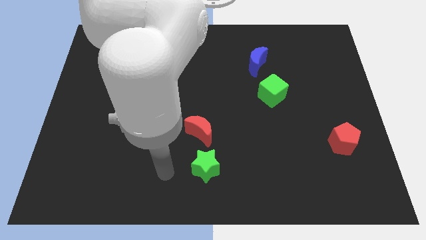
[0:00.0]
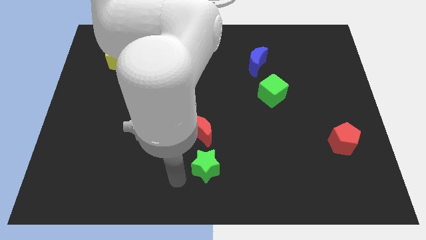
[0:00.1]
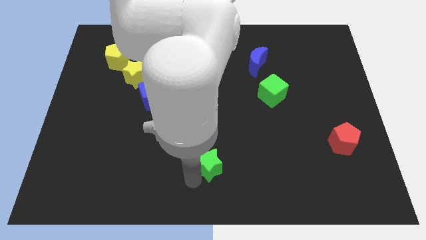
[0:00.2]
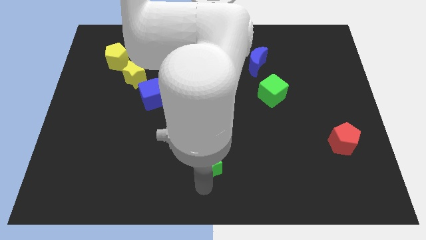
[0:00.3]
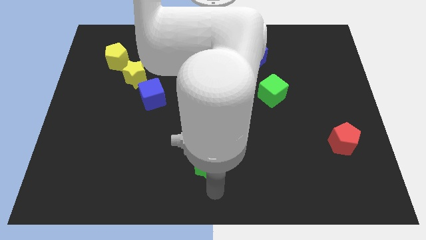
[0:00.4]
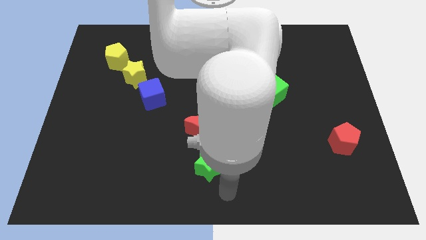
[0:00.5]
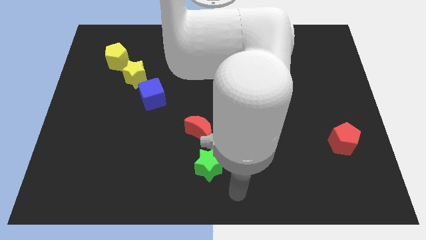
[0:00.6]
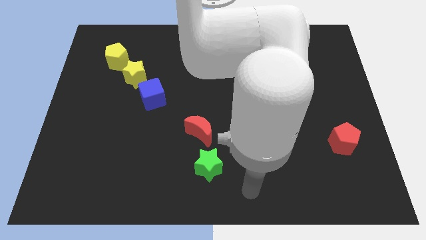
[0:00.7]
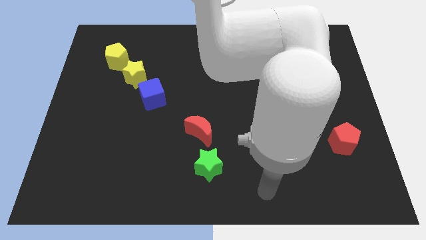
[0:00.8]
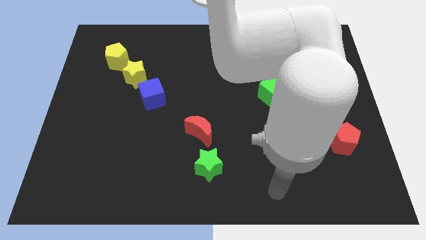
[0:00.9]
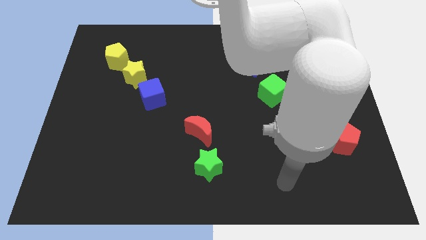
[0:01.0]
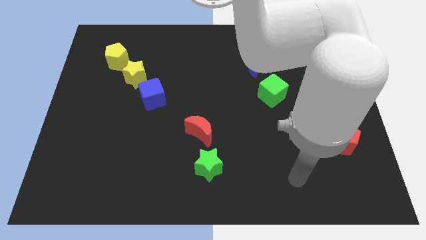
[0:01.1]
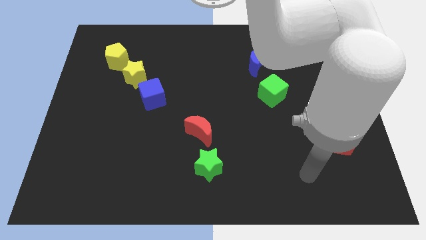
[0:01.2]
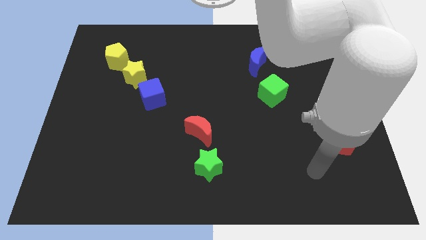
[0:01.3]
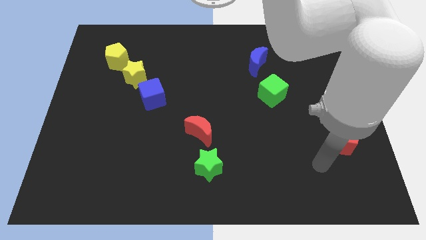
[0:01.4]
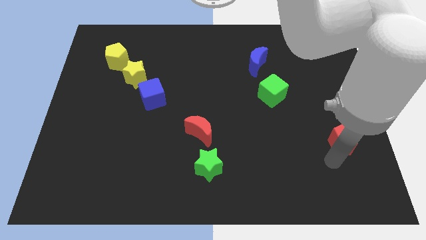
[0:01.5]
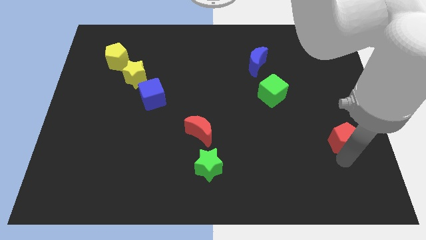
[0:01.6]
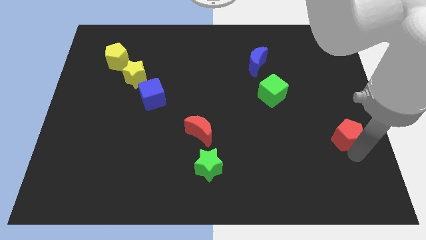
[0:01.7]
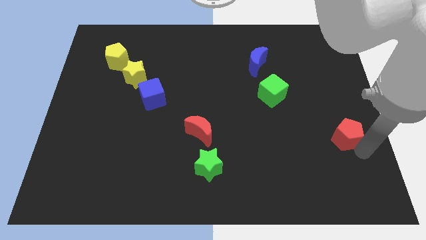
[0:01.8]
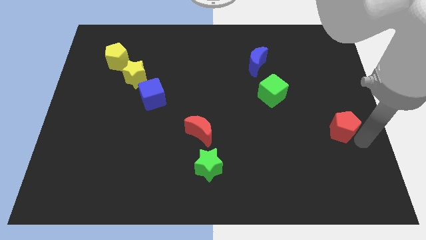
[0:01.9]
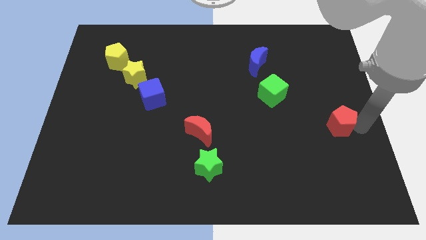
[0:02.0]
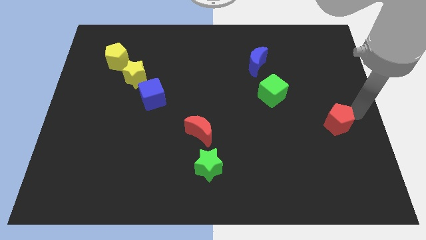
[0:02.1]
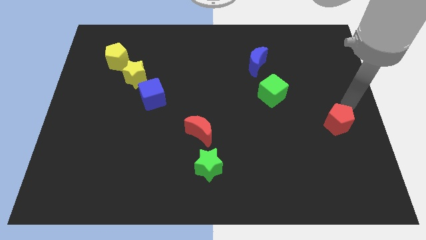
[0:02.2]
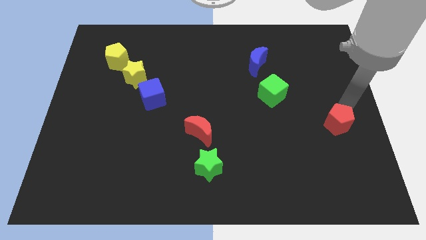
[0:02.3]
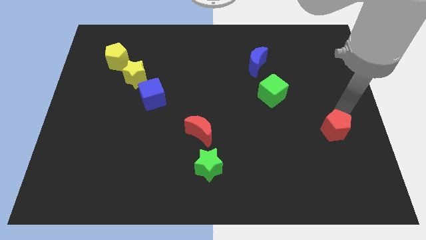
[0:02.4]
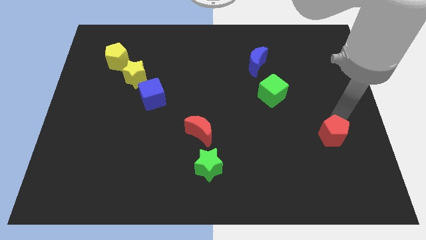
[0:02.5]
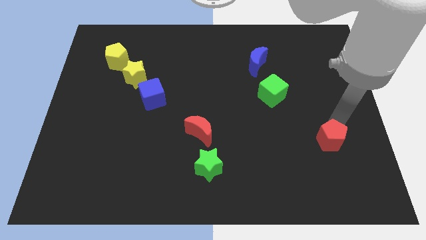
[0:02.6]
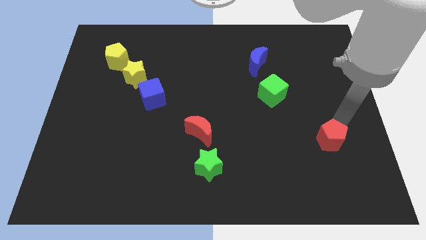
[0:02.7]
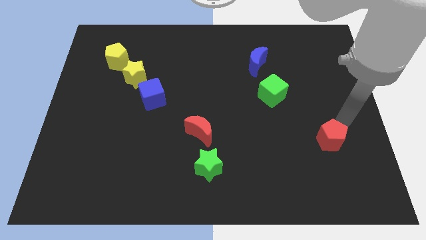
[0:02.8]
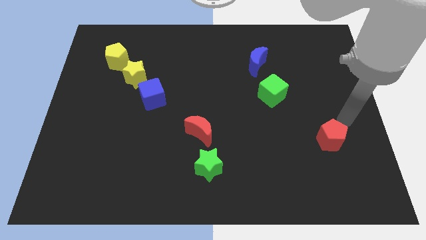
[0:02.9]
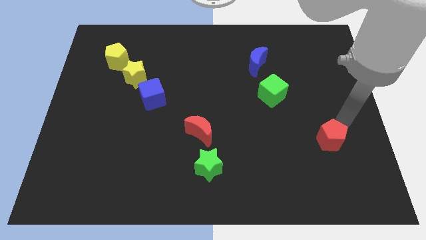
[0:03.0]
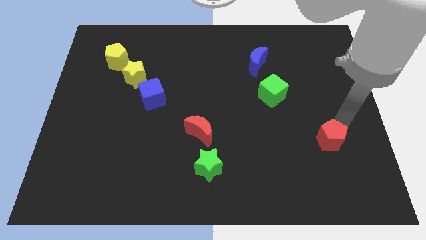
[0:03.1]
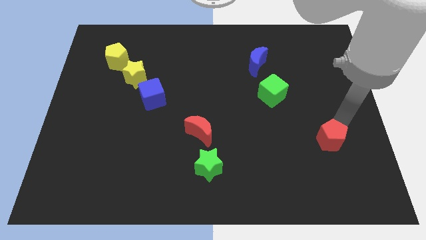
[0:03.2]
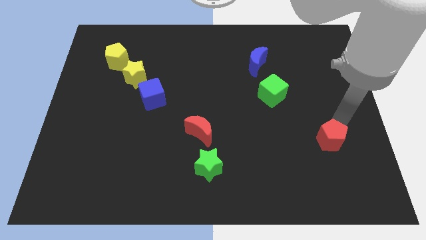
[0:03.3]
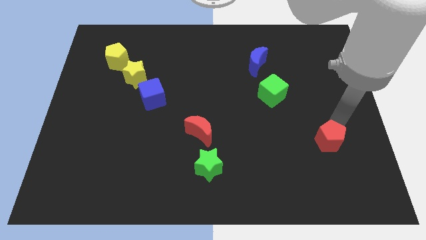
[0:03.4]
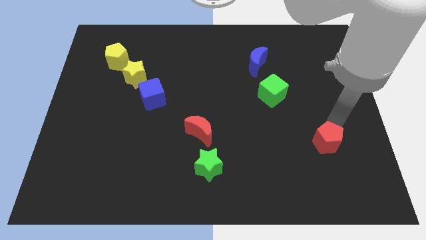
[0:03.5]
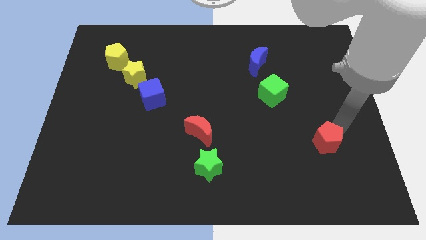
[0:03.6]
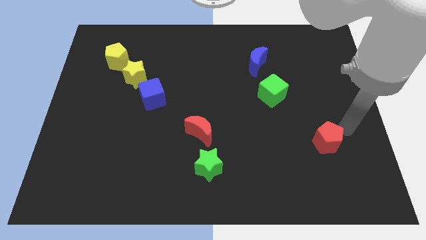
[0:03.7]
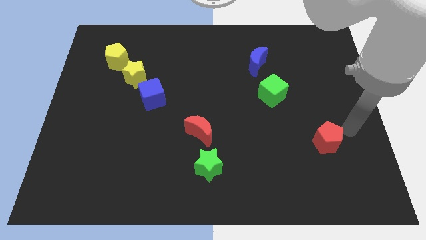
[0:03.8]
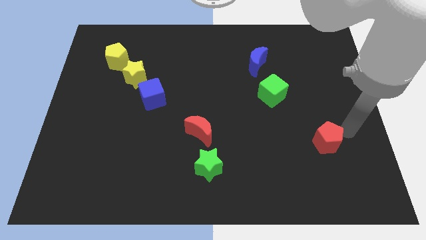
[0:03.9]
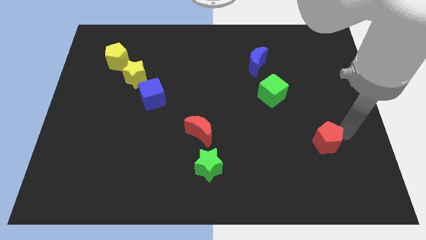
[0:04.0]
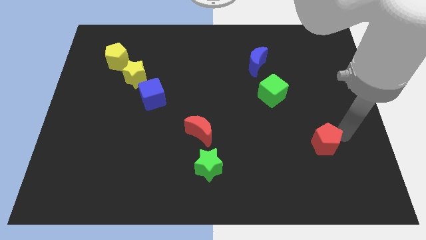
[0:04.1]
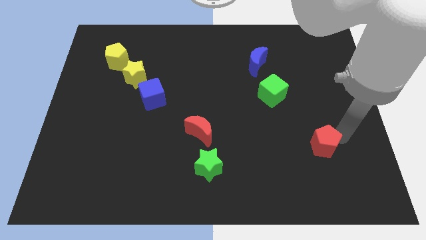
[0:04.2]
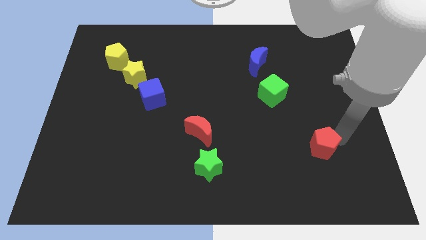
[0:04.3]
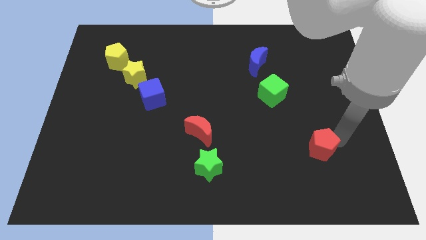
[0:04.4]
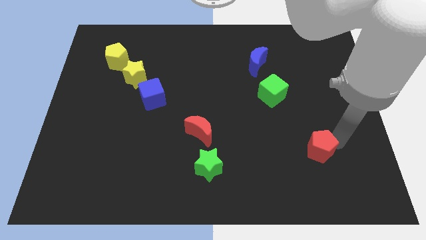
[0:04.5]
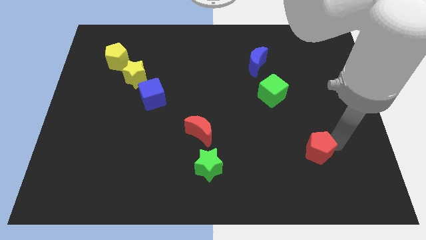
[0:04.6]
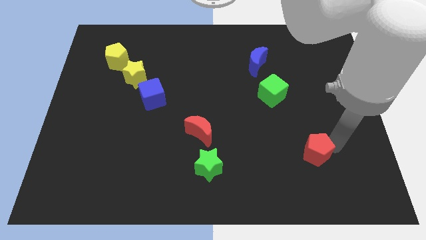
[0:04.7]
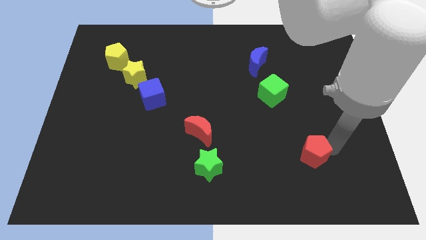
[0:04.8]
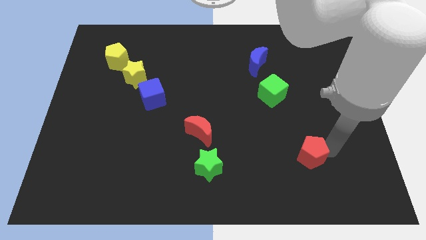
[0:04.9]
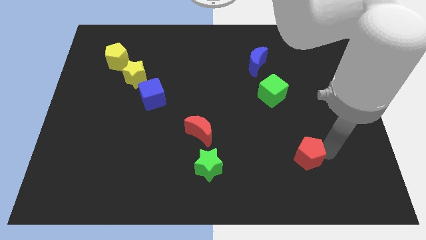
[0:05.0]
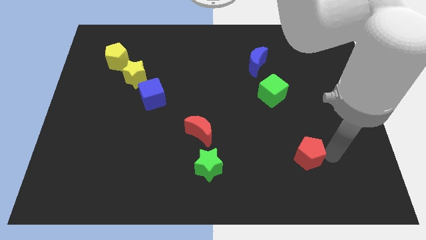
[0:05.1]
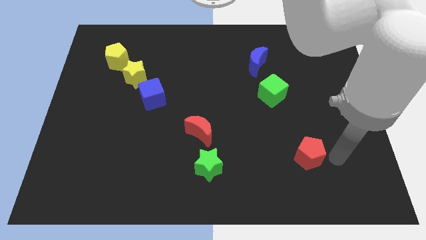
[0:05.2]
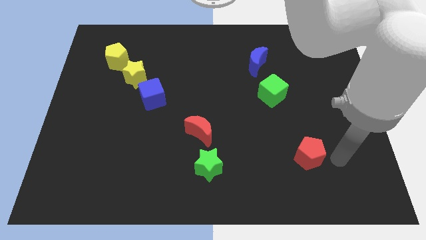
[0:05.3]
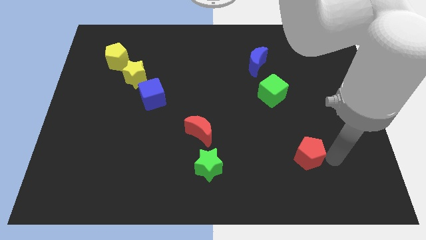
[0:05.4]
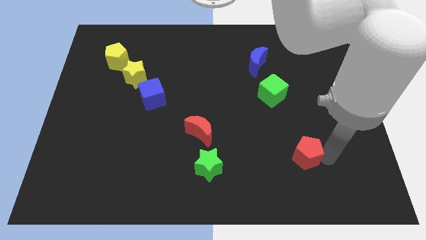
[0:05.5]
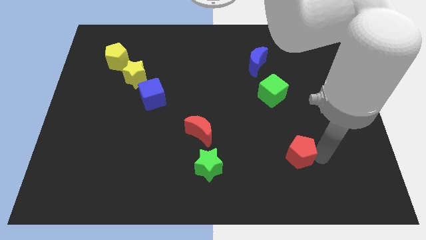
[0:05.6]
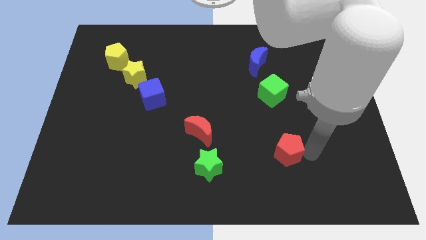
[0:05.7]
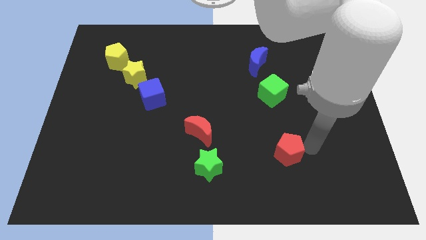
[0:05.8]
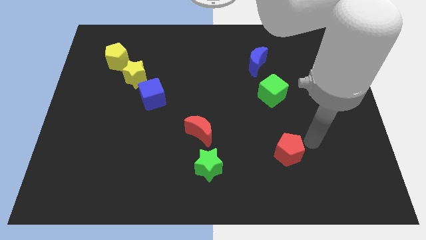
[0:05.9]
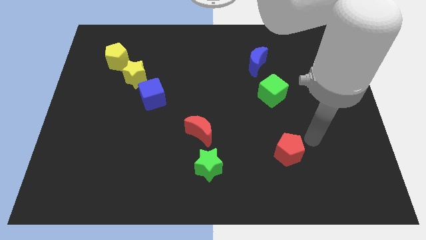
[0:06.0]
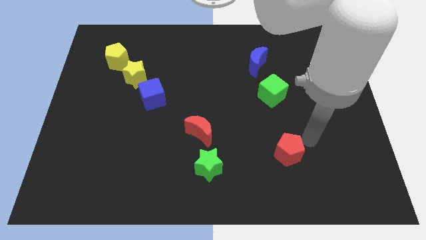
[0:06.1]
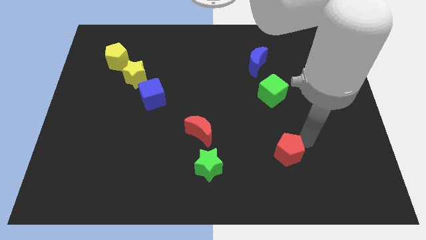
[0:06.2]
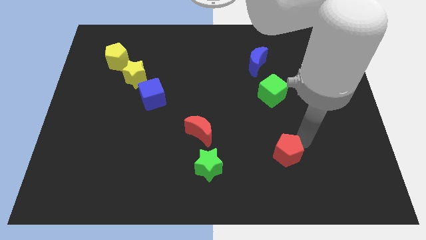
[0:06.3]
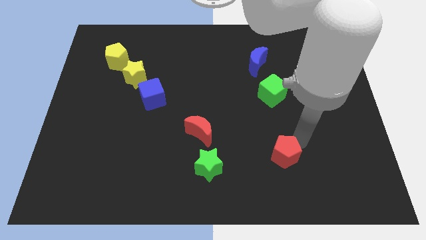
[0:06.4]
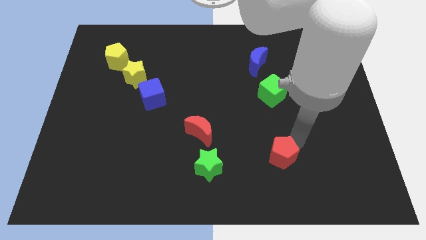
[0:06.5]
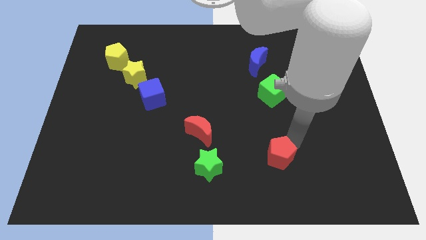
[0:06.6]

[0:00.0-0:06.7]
slide the red pentagon just right of the green star
